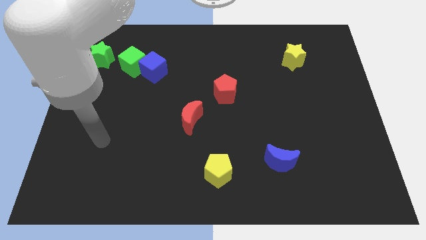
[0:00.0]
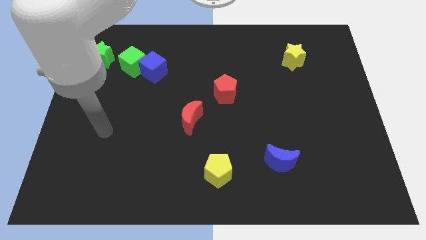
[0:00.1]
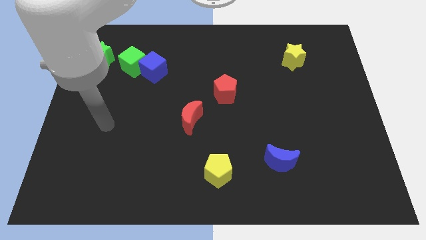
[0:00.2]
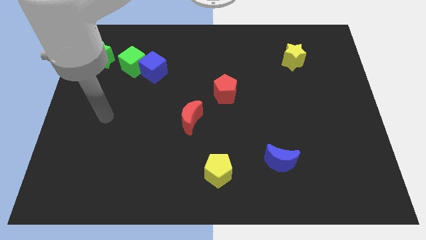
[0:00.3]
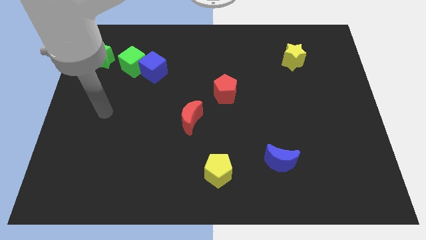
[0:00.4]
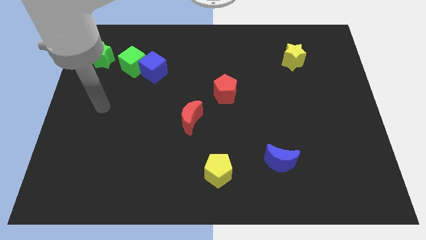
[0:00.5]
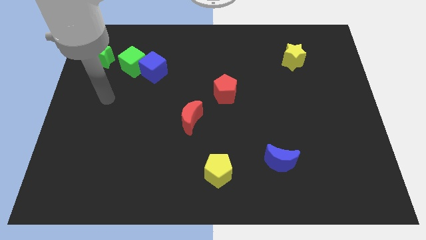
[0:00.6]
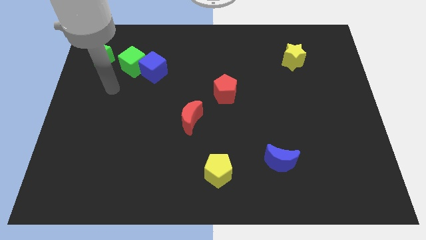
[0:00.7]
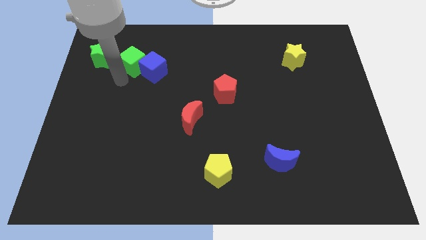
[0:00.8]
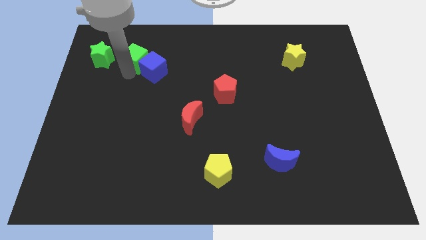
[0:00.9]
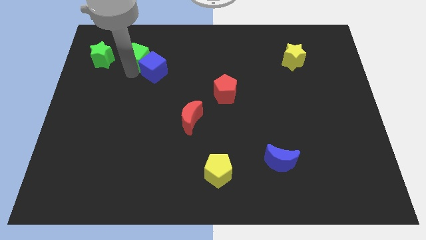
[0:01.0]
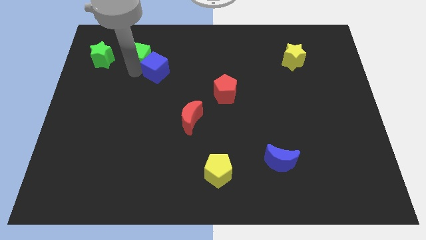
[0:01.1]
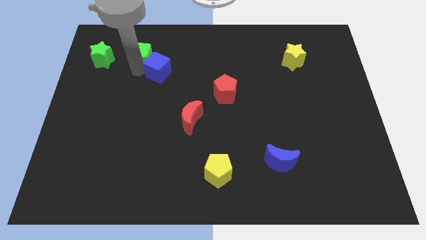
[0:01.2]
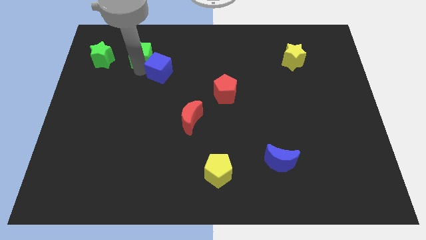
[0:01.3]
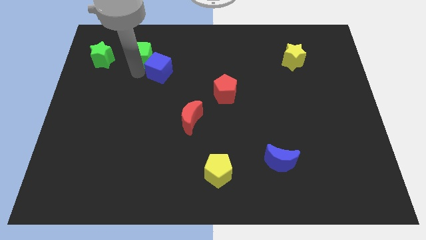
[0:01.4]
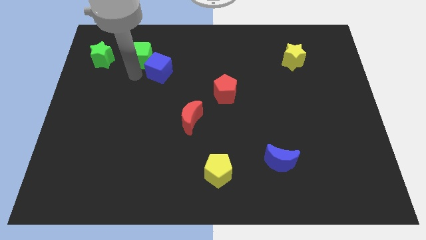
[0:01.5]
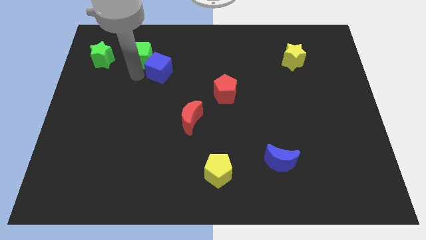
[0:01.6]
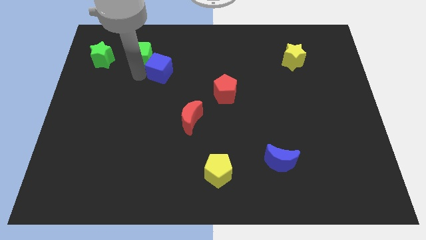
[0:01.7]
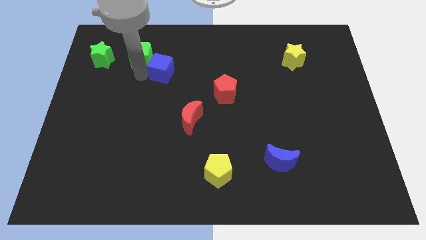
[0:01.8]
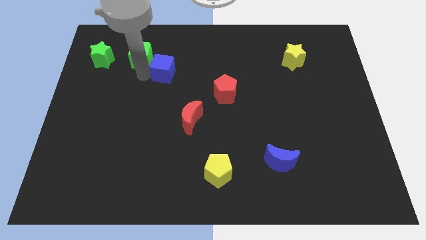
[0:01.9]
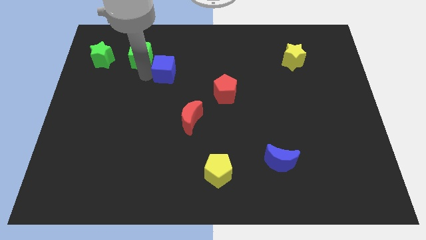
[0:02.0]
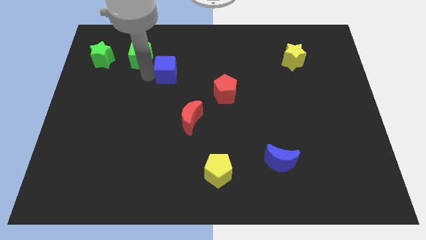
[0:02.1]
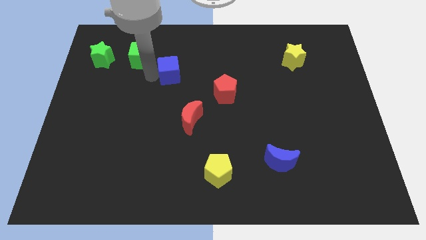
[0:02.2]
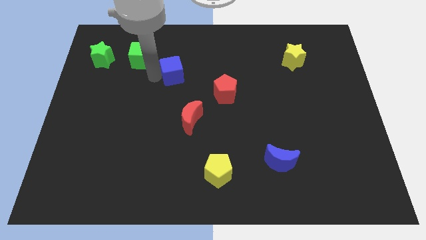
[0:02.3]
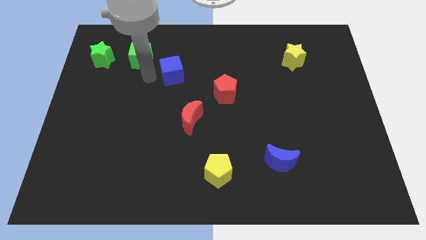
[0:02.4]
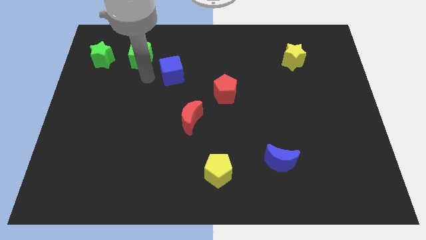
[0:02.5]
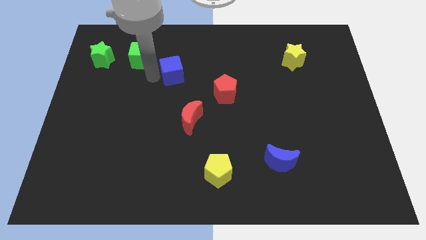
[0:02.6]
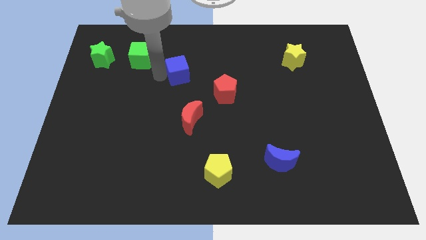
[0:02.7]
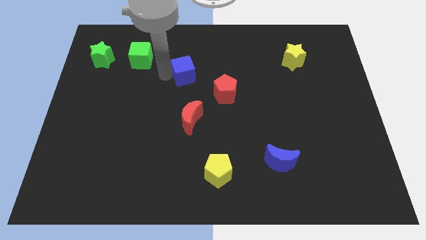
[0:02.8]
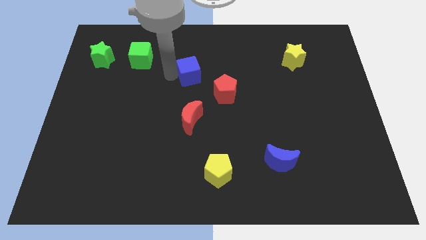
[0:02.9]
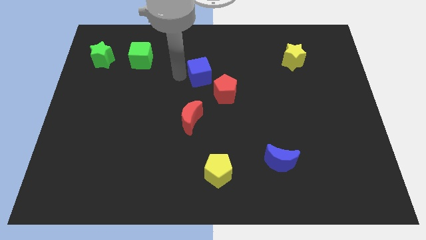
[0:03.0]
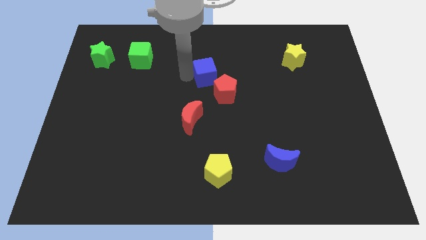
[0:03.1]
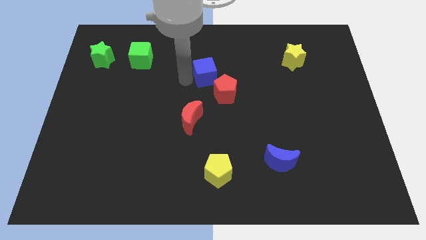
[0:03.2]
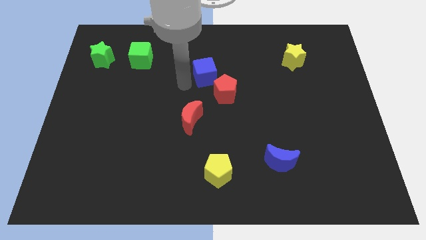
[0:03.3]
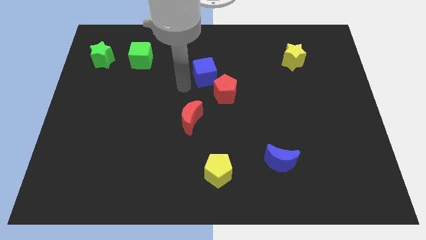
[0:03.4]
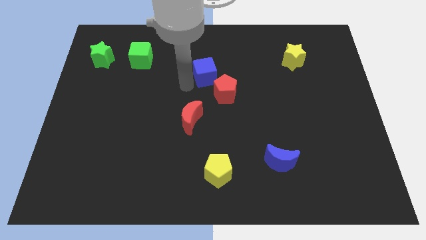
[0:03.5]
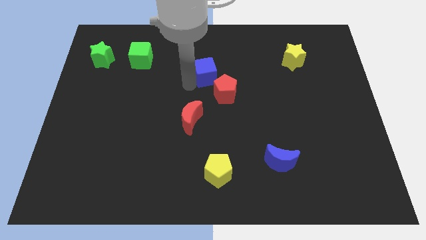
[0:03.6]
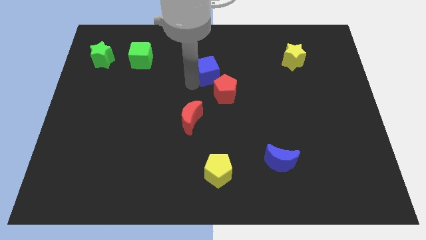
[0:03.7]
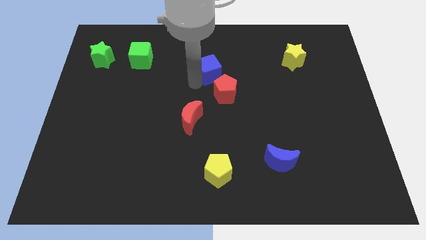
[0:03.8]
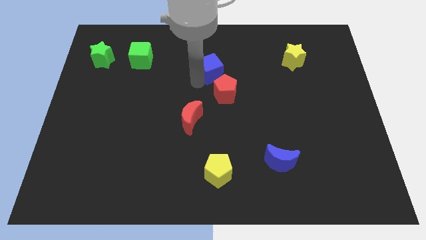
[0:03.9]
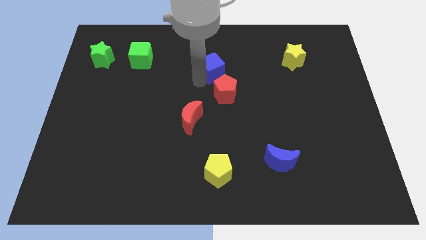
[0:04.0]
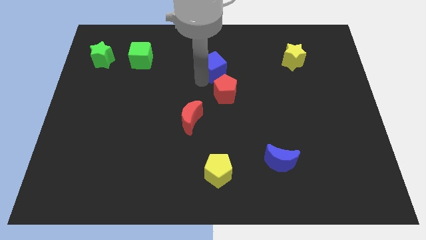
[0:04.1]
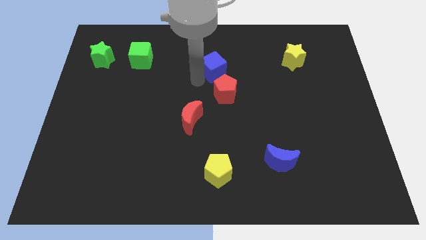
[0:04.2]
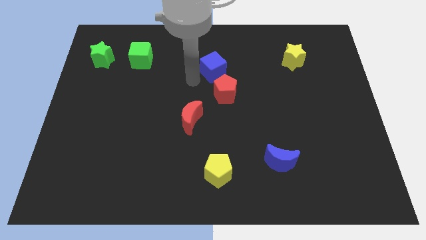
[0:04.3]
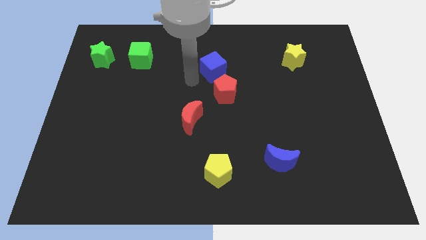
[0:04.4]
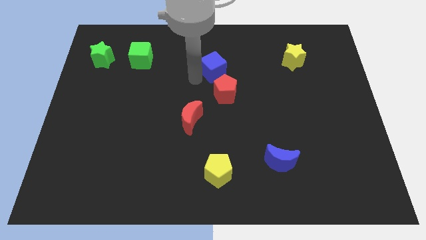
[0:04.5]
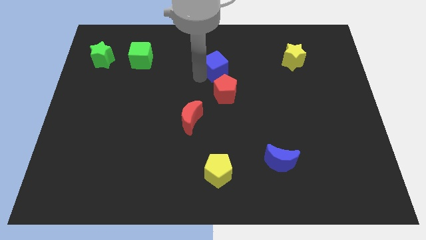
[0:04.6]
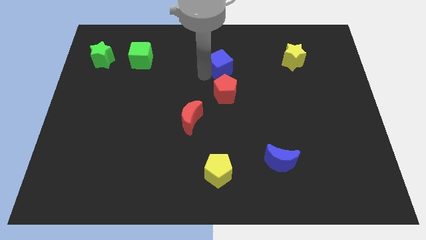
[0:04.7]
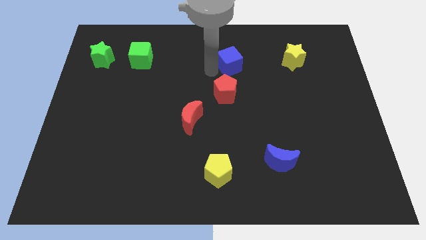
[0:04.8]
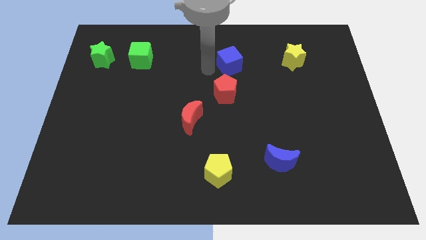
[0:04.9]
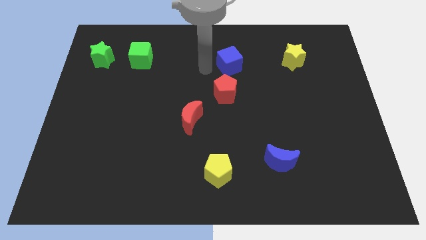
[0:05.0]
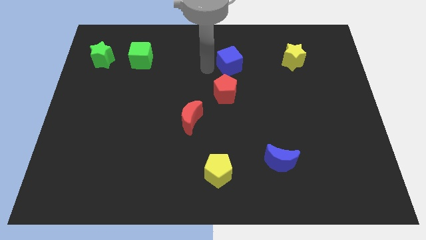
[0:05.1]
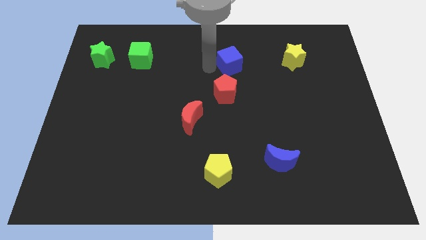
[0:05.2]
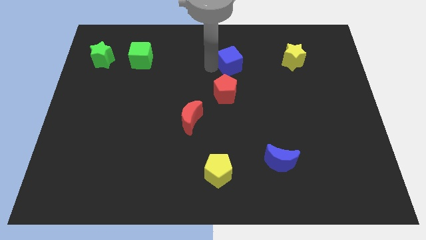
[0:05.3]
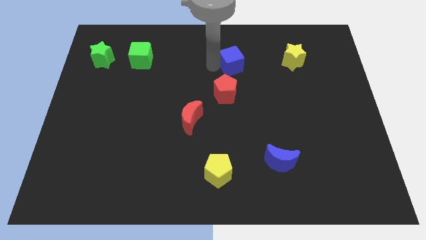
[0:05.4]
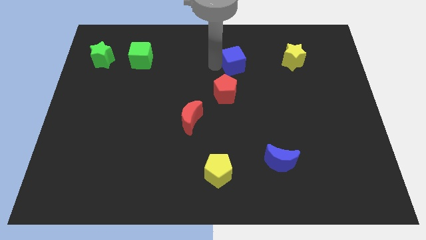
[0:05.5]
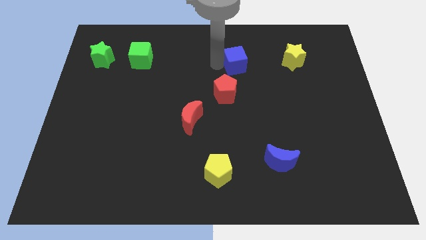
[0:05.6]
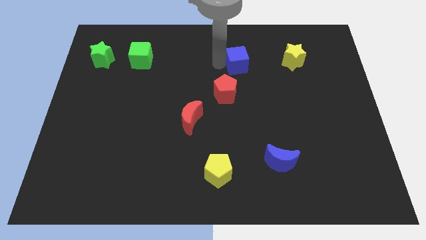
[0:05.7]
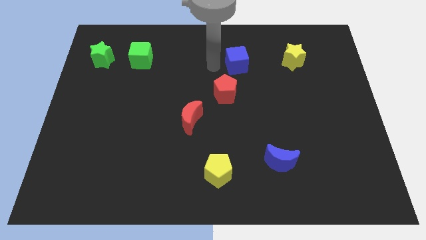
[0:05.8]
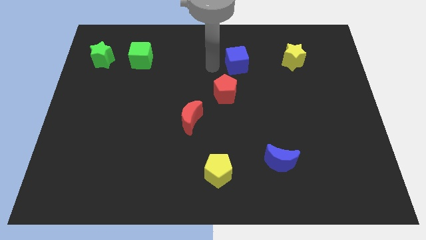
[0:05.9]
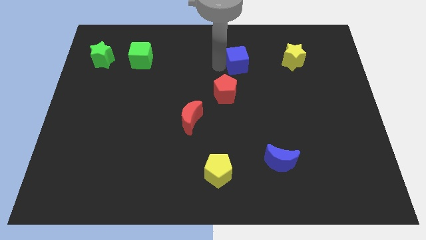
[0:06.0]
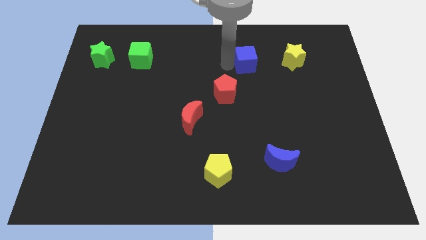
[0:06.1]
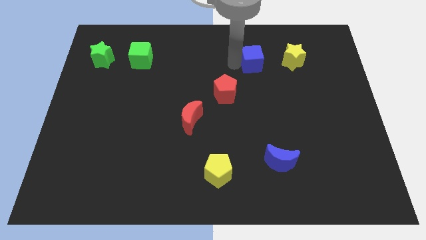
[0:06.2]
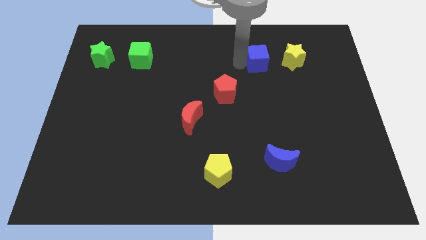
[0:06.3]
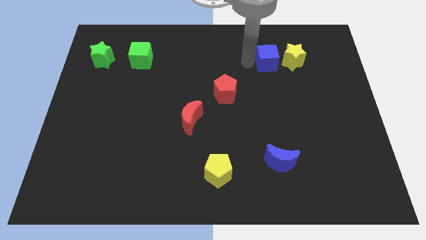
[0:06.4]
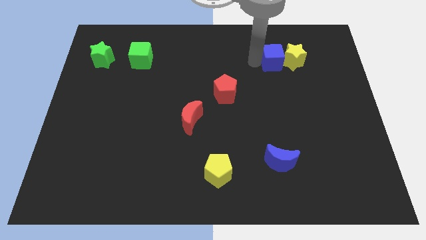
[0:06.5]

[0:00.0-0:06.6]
move the blue cube close to the yellow star

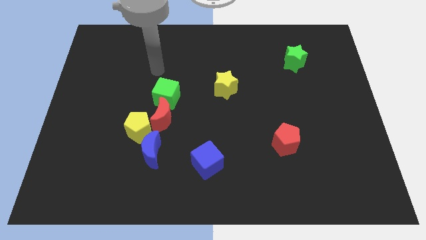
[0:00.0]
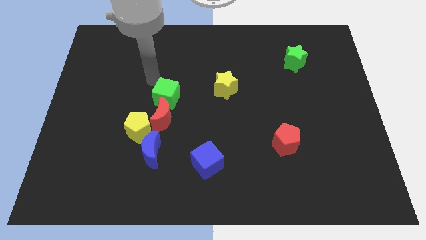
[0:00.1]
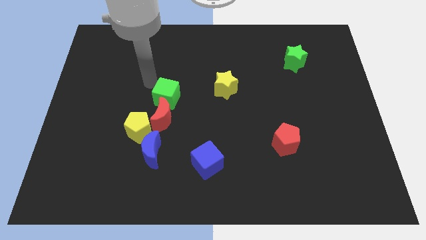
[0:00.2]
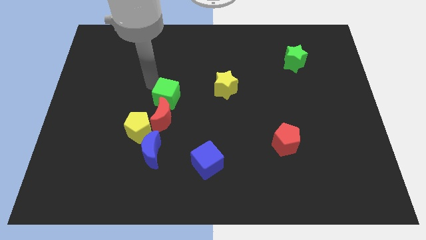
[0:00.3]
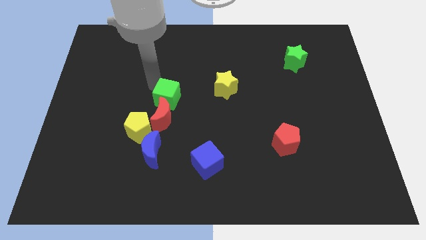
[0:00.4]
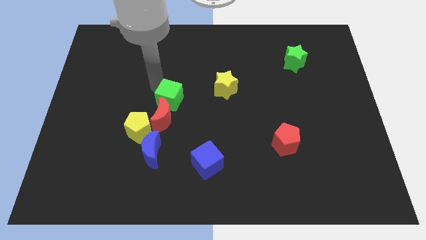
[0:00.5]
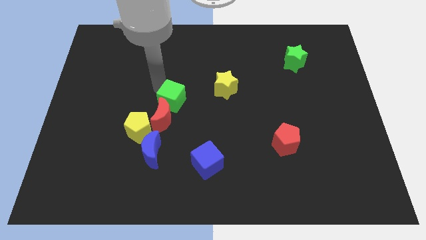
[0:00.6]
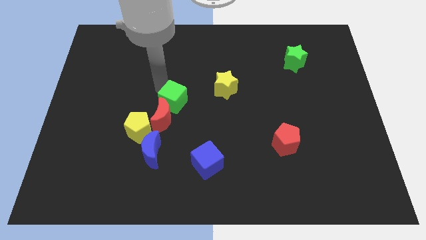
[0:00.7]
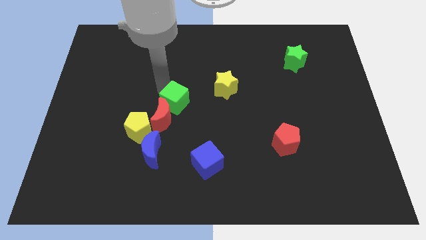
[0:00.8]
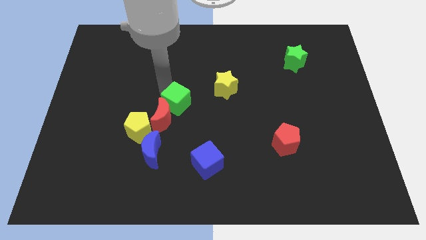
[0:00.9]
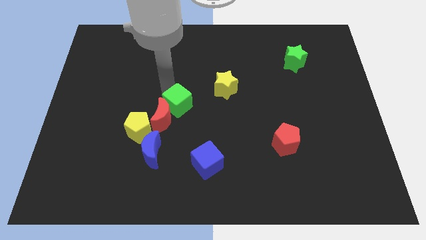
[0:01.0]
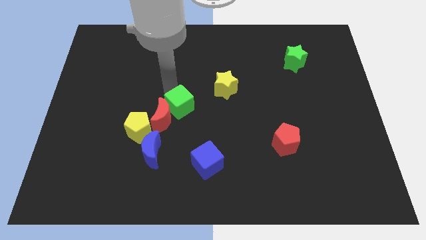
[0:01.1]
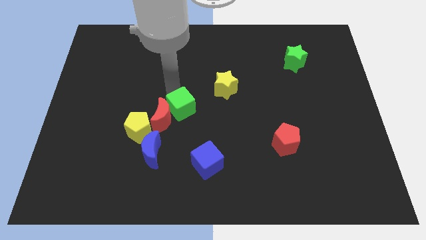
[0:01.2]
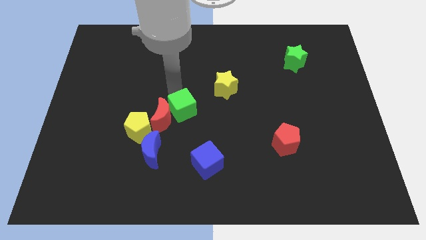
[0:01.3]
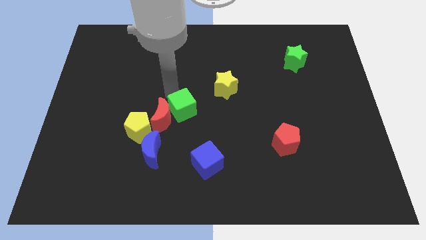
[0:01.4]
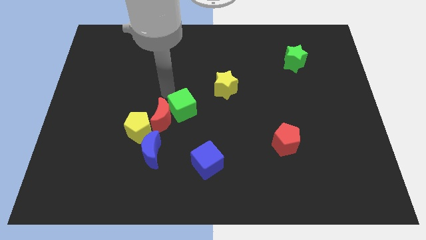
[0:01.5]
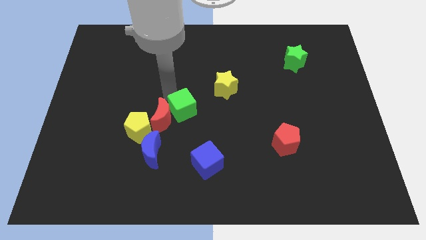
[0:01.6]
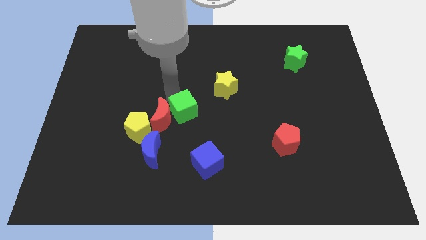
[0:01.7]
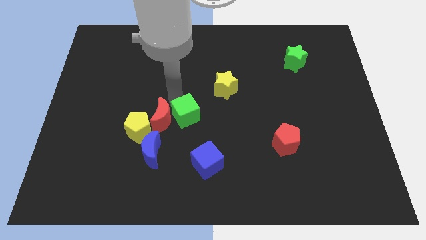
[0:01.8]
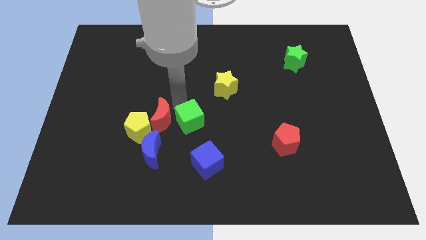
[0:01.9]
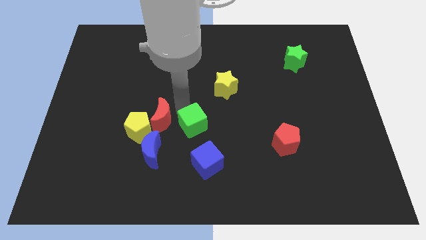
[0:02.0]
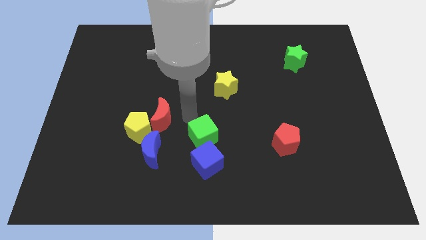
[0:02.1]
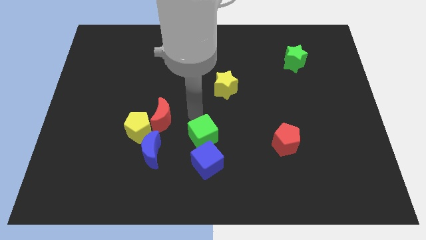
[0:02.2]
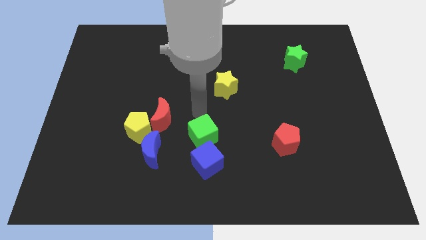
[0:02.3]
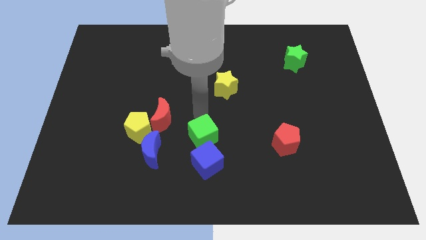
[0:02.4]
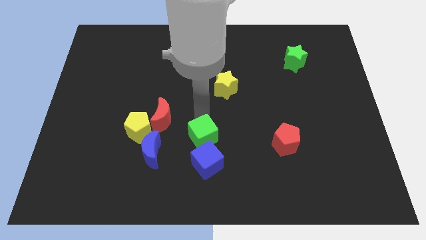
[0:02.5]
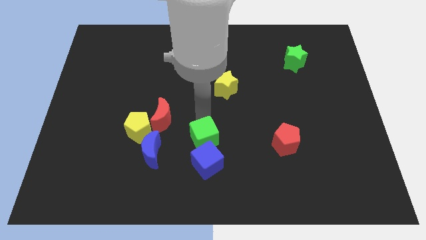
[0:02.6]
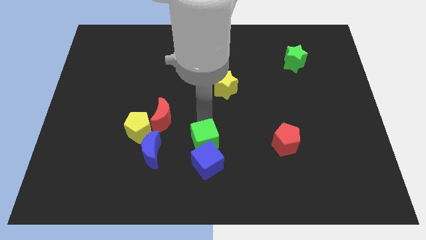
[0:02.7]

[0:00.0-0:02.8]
push the green cube next to the blue cube
